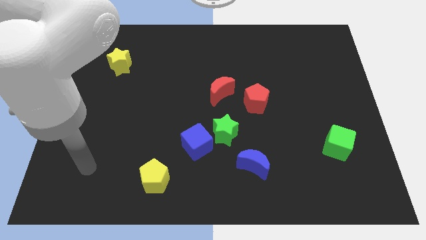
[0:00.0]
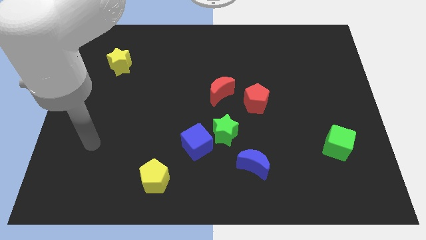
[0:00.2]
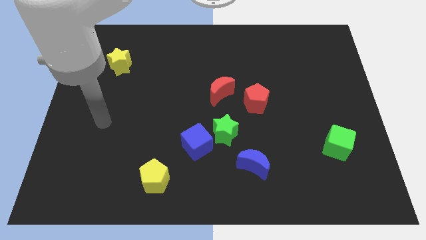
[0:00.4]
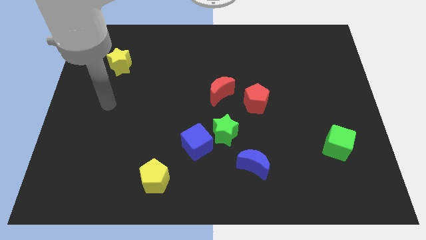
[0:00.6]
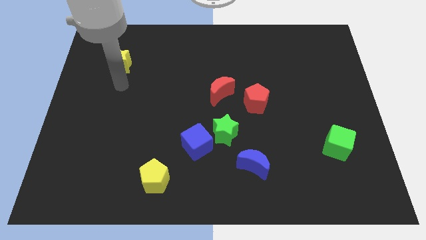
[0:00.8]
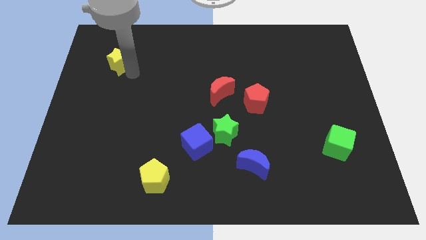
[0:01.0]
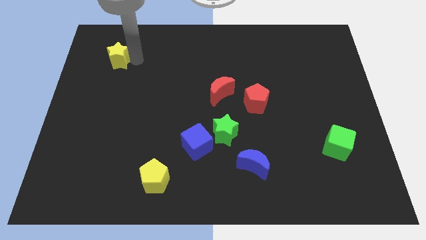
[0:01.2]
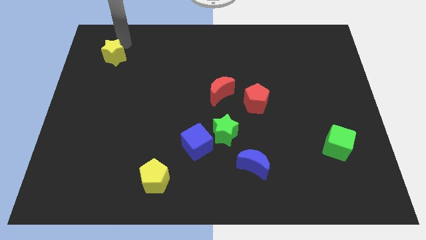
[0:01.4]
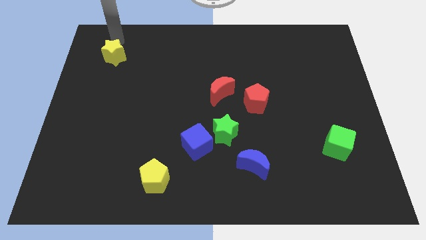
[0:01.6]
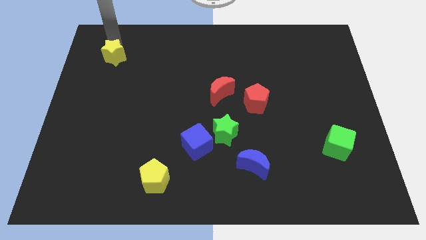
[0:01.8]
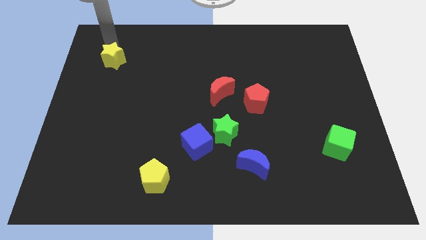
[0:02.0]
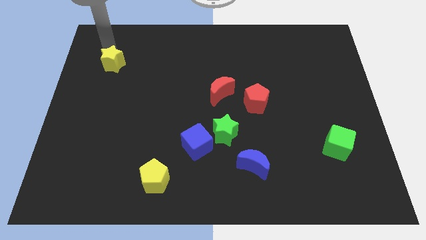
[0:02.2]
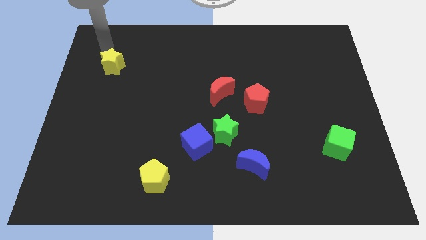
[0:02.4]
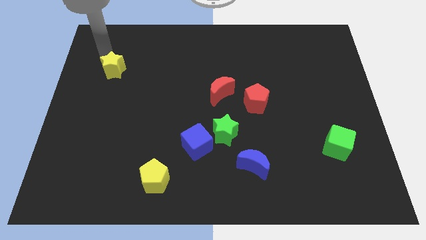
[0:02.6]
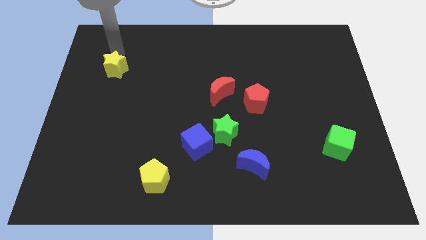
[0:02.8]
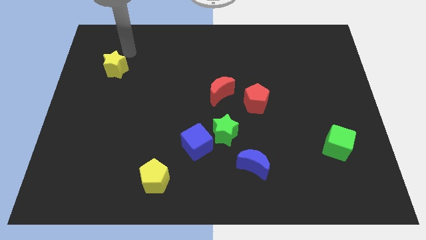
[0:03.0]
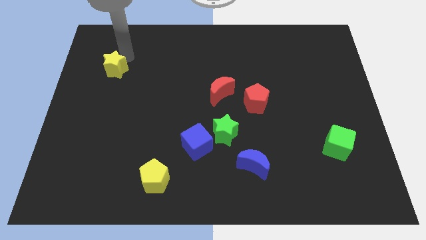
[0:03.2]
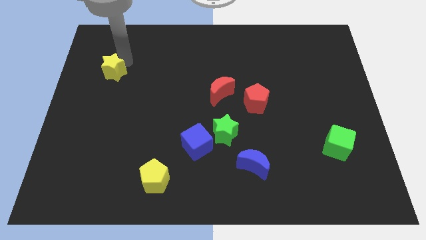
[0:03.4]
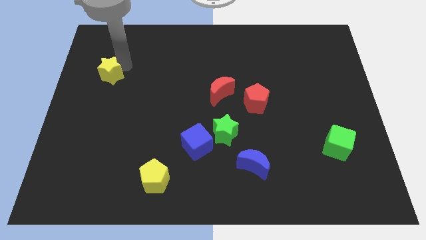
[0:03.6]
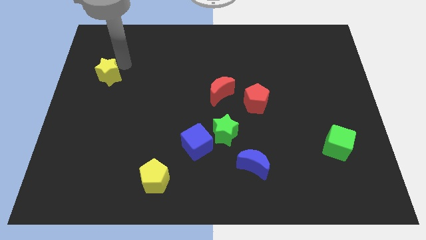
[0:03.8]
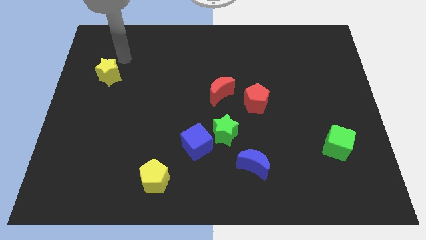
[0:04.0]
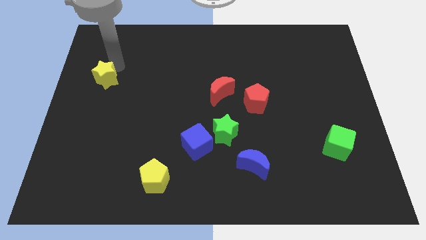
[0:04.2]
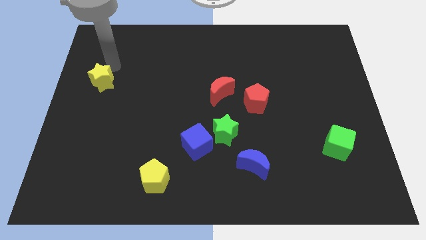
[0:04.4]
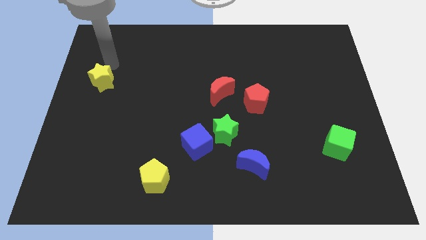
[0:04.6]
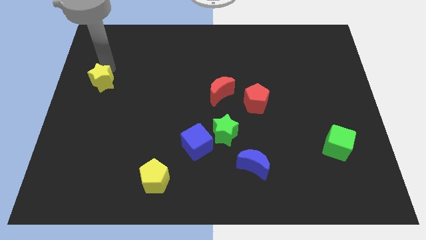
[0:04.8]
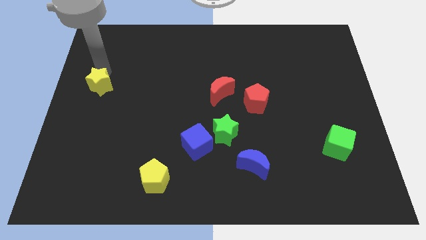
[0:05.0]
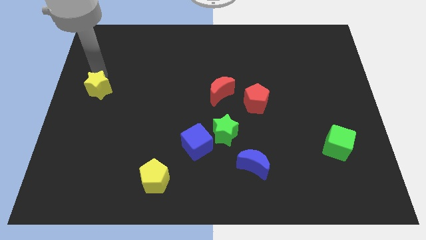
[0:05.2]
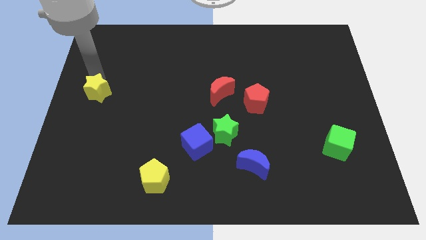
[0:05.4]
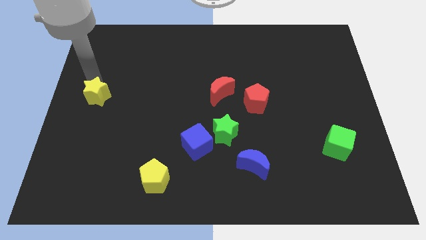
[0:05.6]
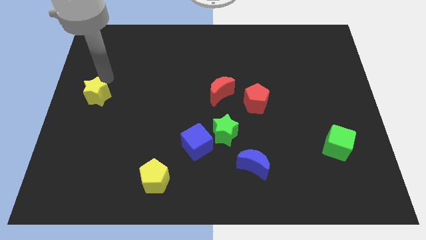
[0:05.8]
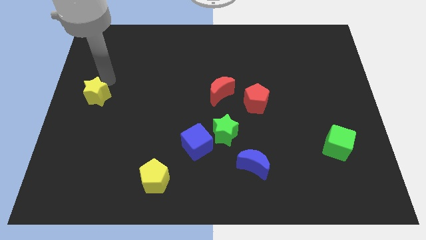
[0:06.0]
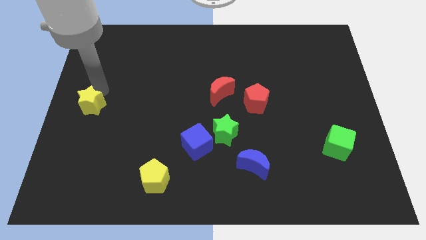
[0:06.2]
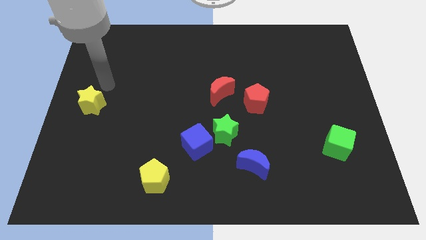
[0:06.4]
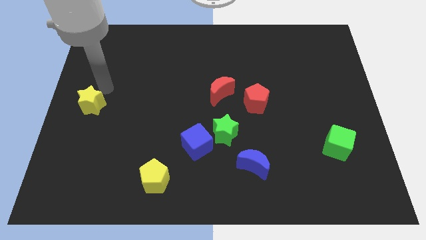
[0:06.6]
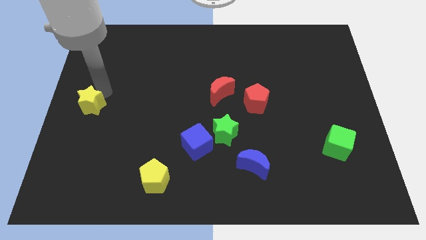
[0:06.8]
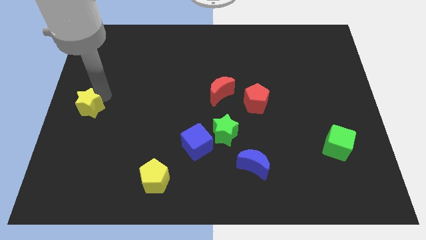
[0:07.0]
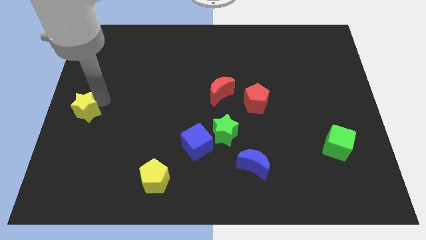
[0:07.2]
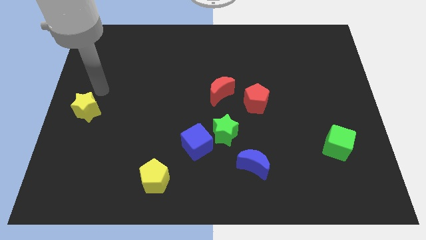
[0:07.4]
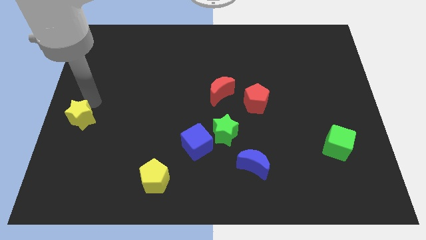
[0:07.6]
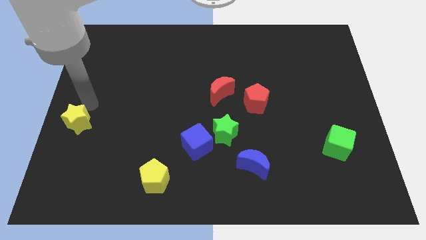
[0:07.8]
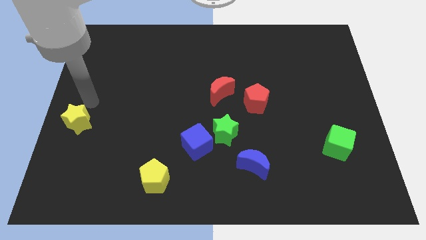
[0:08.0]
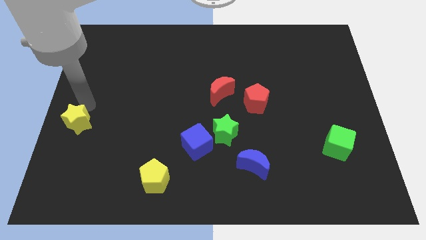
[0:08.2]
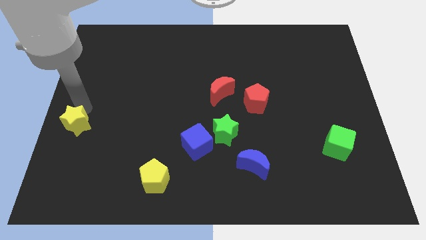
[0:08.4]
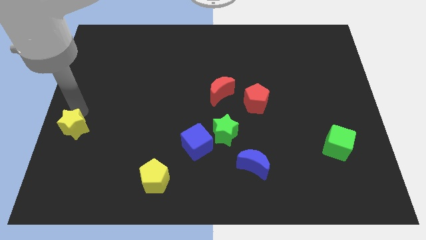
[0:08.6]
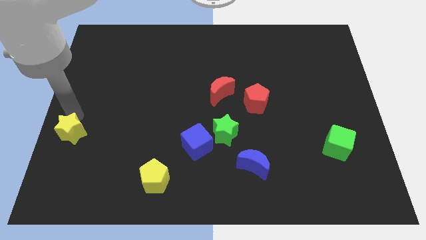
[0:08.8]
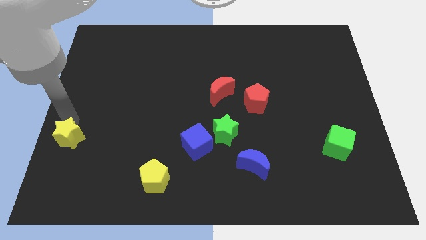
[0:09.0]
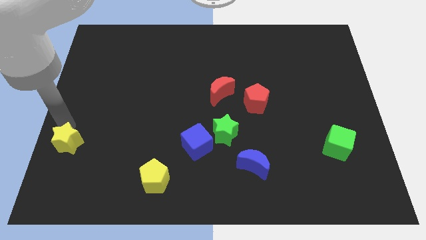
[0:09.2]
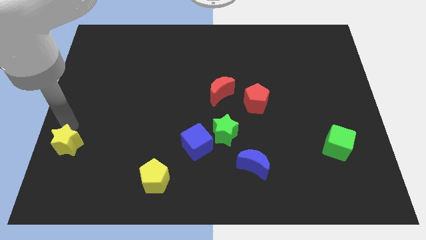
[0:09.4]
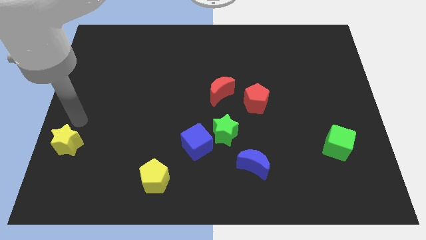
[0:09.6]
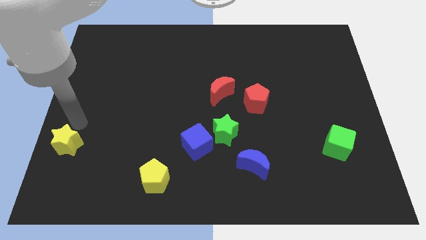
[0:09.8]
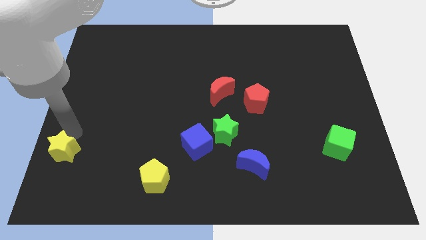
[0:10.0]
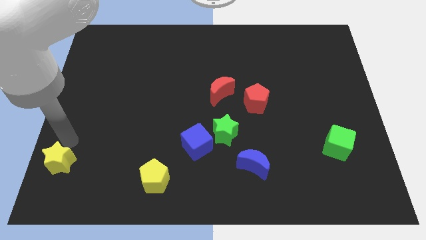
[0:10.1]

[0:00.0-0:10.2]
slide the yellow star to the bottom left

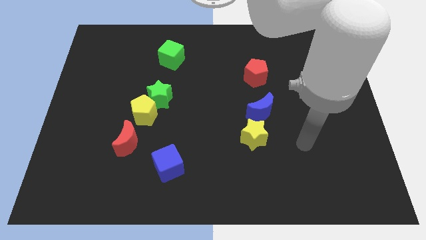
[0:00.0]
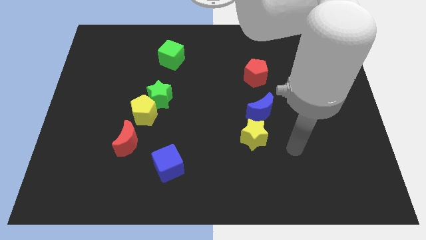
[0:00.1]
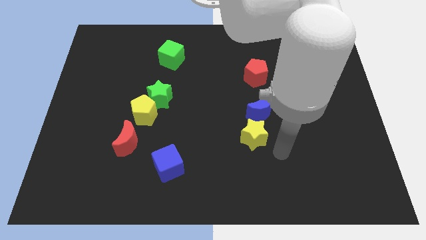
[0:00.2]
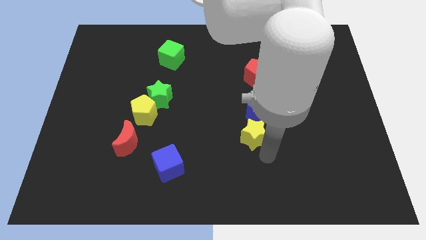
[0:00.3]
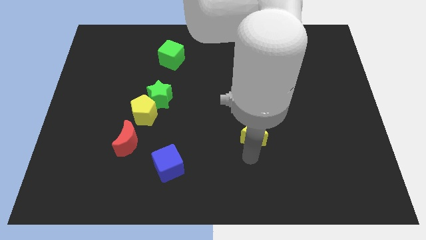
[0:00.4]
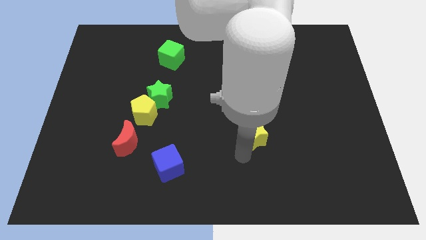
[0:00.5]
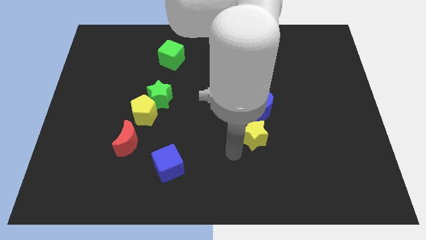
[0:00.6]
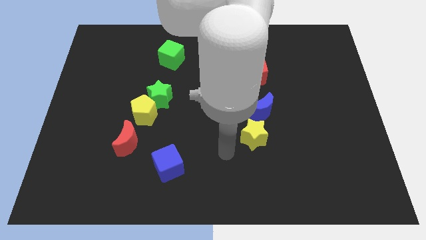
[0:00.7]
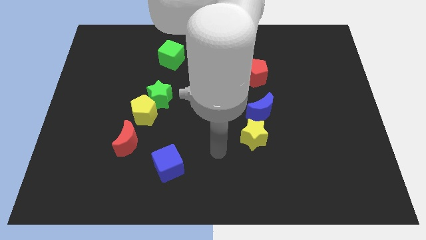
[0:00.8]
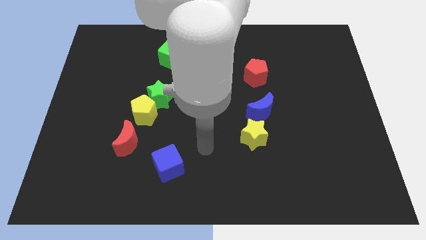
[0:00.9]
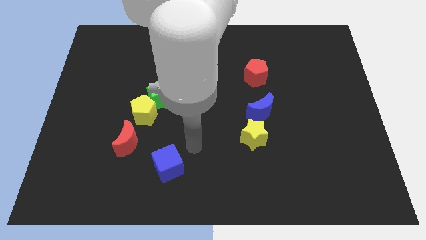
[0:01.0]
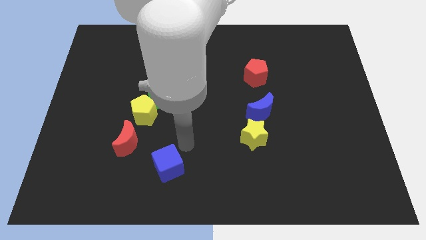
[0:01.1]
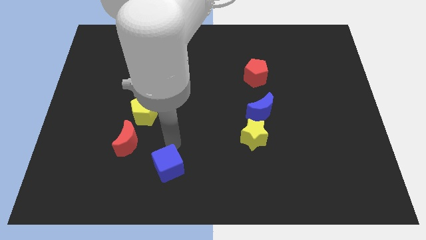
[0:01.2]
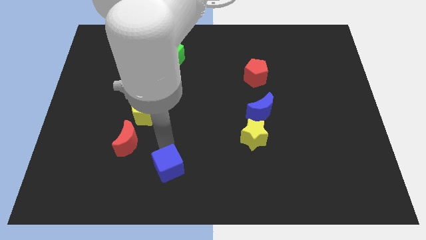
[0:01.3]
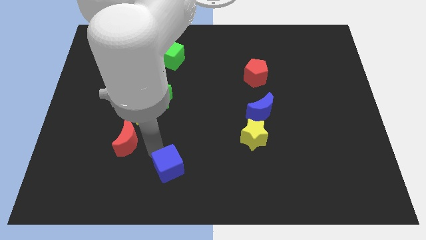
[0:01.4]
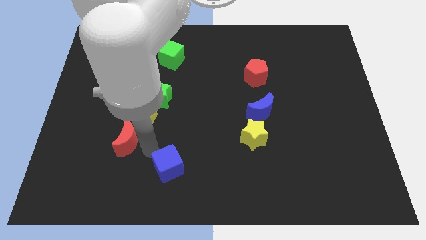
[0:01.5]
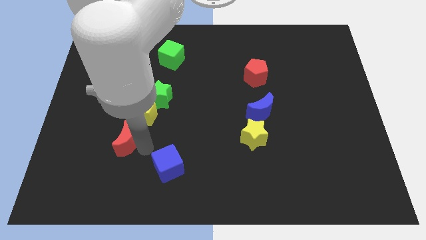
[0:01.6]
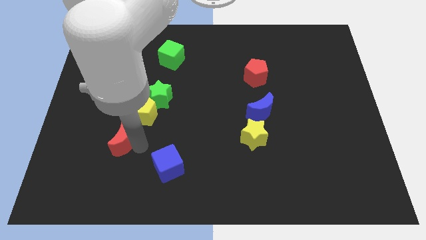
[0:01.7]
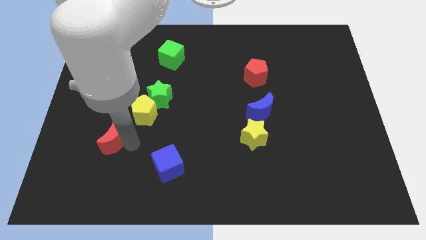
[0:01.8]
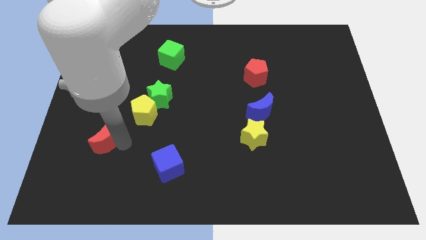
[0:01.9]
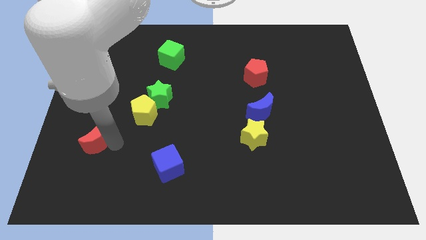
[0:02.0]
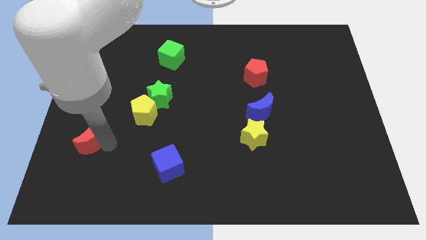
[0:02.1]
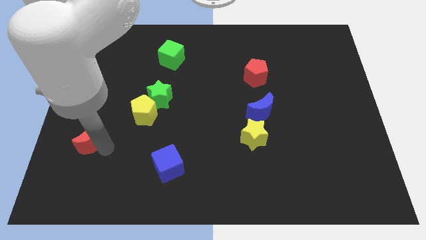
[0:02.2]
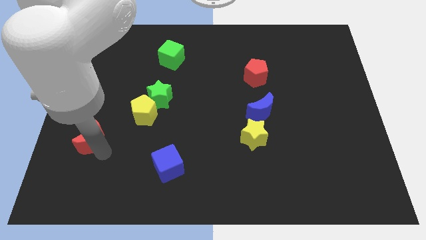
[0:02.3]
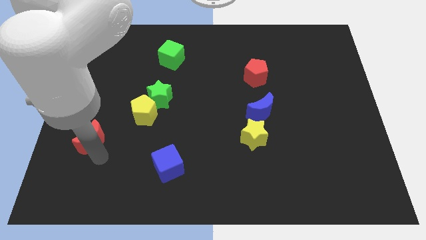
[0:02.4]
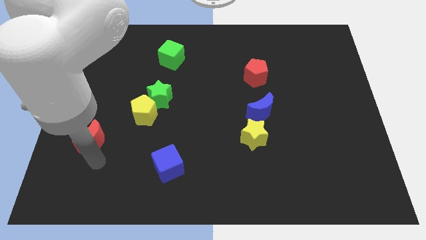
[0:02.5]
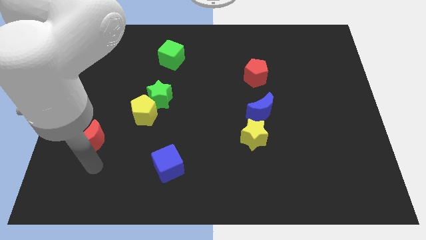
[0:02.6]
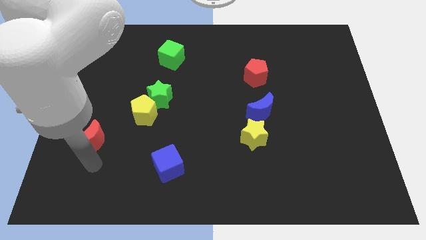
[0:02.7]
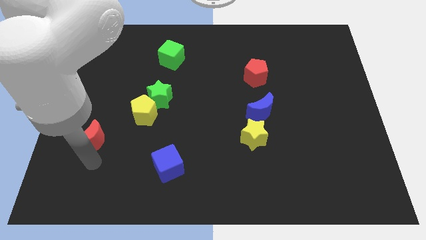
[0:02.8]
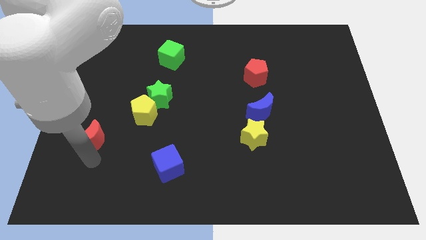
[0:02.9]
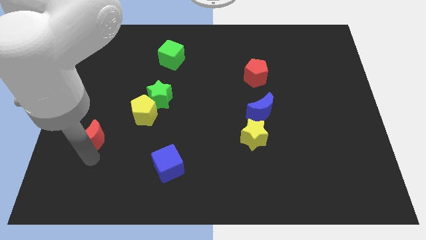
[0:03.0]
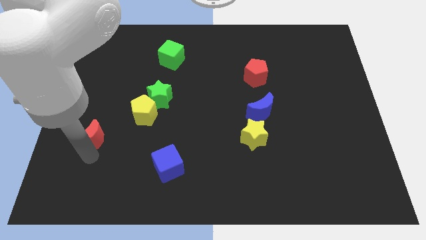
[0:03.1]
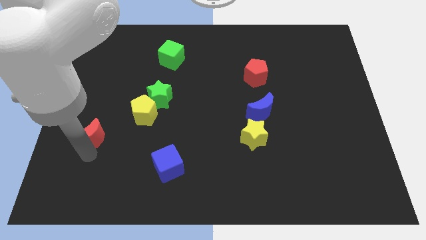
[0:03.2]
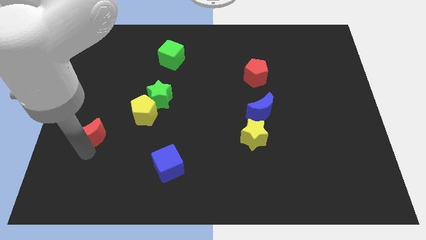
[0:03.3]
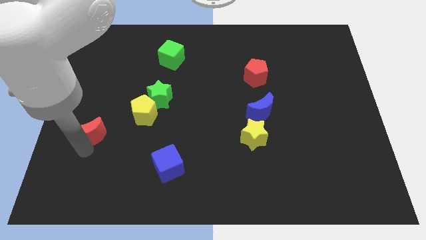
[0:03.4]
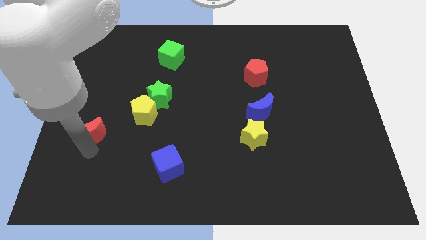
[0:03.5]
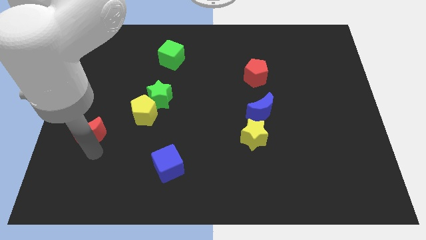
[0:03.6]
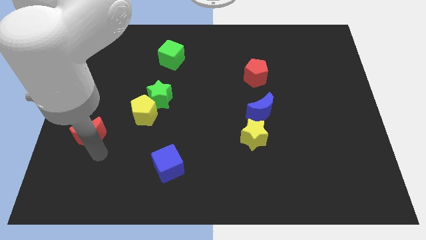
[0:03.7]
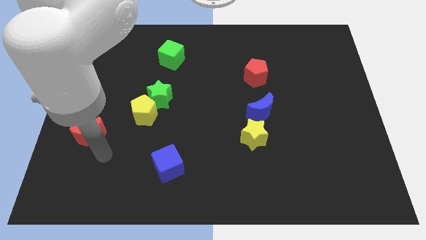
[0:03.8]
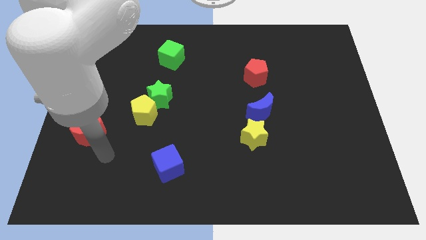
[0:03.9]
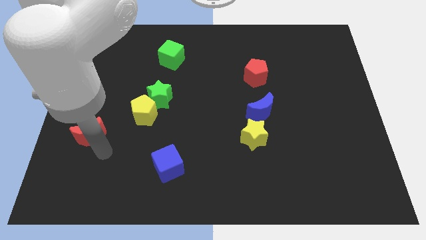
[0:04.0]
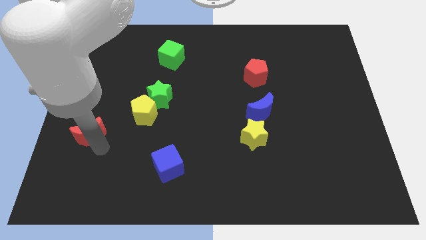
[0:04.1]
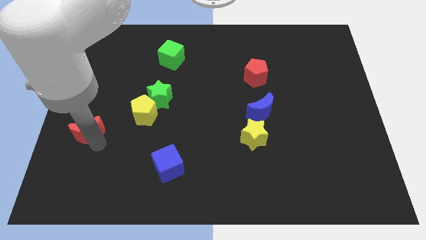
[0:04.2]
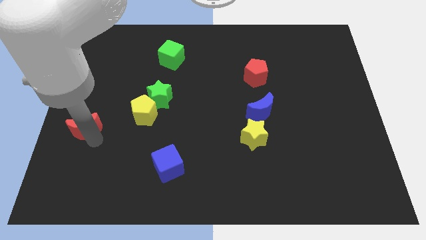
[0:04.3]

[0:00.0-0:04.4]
push the red moon to the center left
